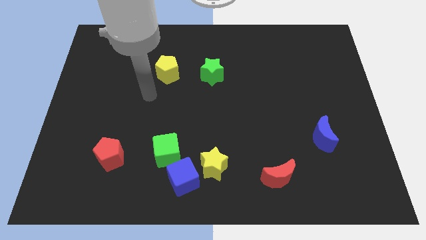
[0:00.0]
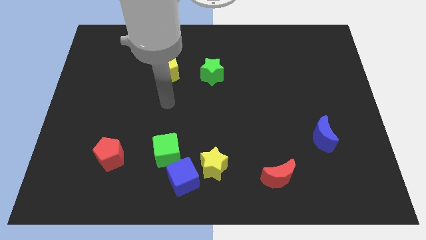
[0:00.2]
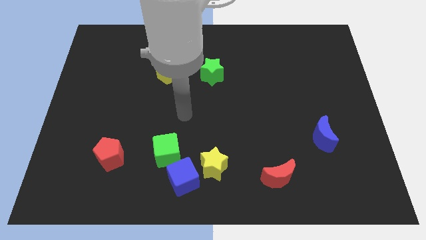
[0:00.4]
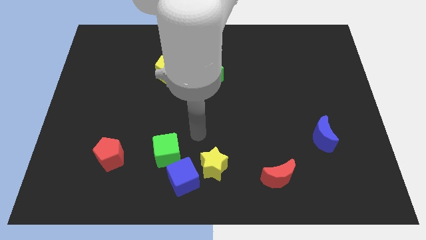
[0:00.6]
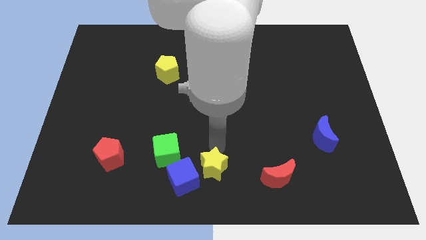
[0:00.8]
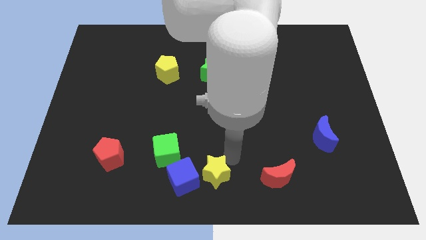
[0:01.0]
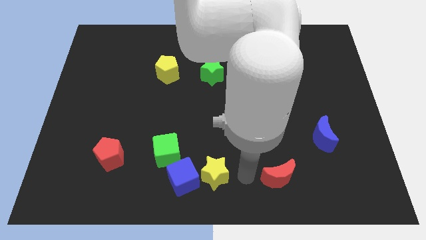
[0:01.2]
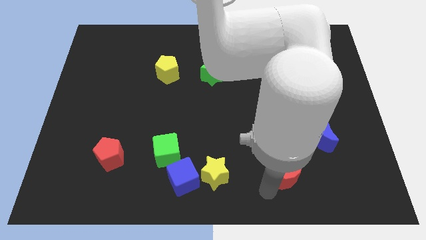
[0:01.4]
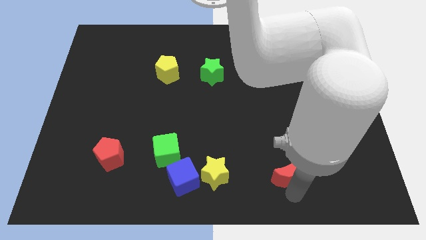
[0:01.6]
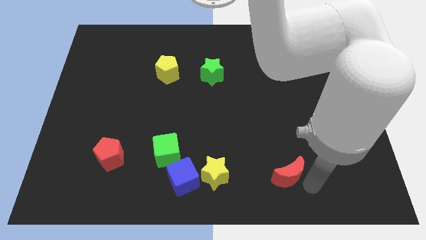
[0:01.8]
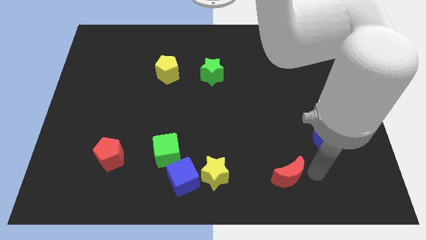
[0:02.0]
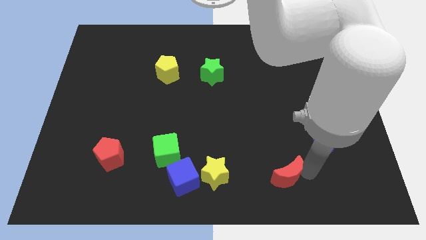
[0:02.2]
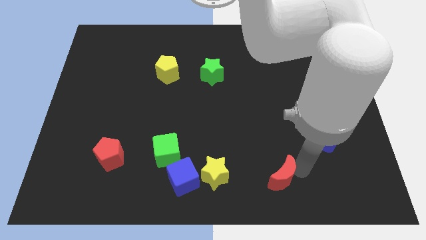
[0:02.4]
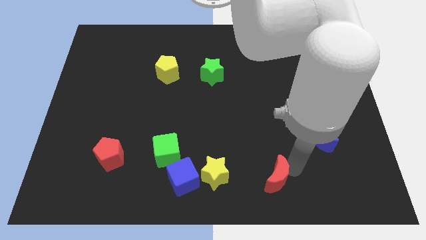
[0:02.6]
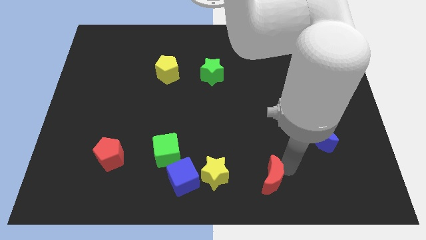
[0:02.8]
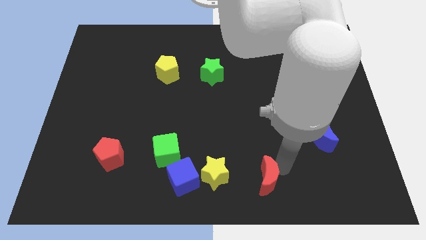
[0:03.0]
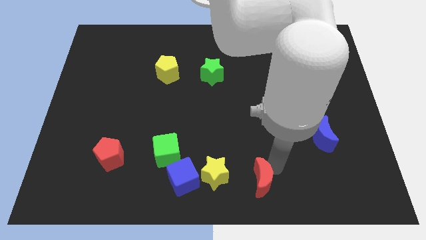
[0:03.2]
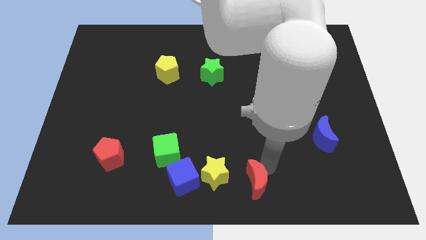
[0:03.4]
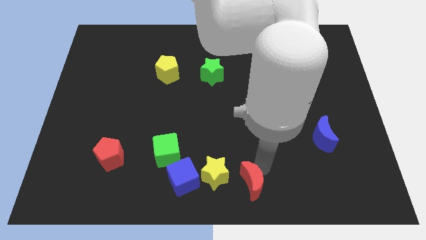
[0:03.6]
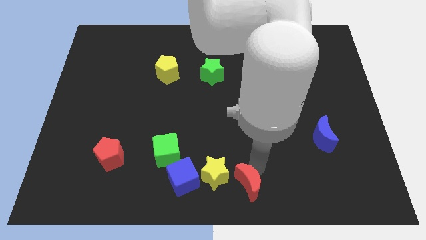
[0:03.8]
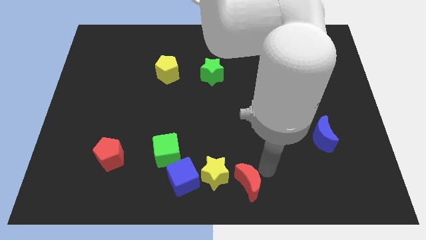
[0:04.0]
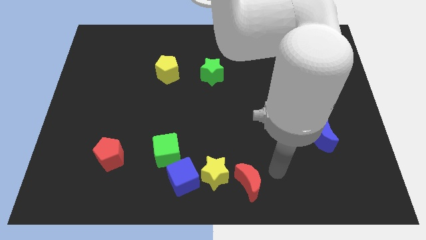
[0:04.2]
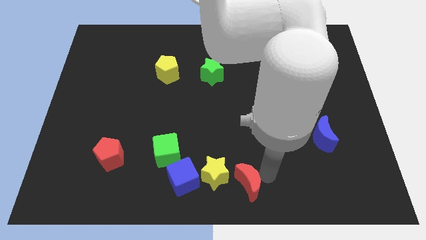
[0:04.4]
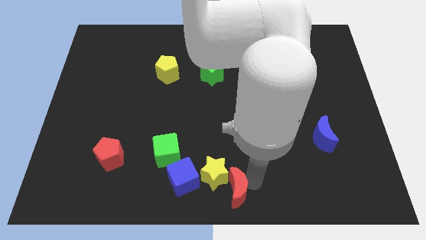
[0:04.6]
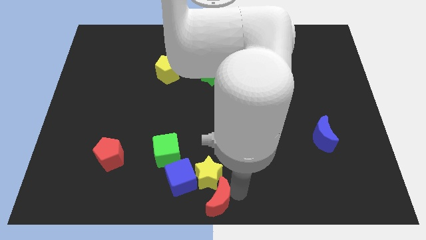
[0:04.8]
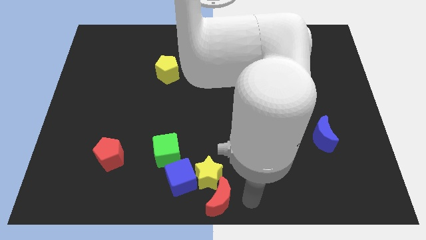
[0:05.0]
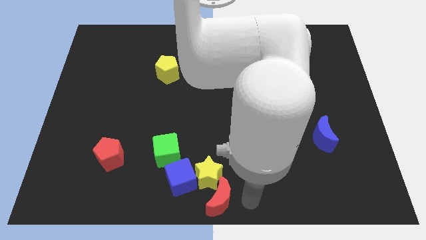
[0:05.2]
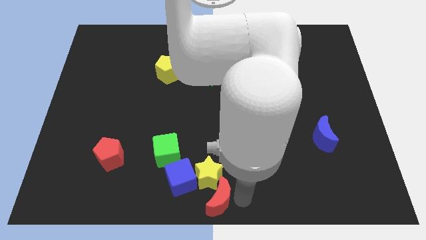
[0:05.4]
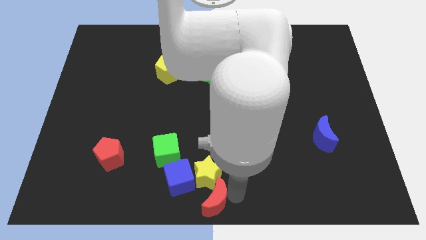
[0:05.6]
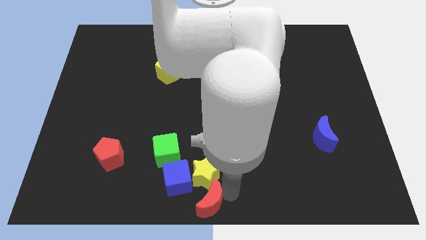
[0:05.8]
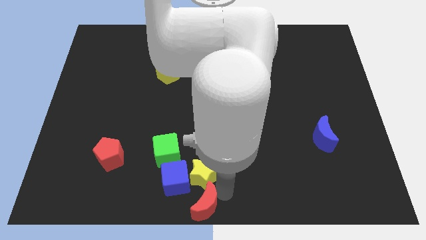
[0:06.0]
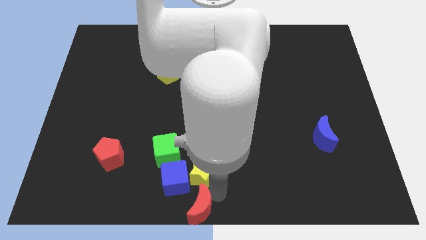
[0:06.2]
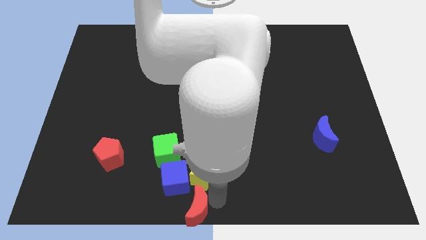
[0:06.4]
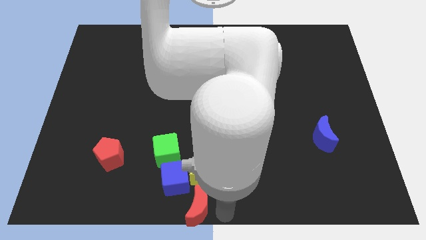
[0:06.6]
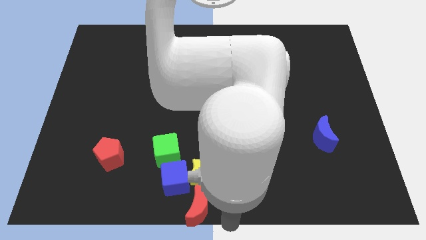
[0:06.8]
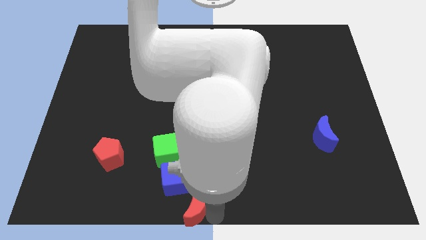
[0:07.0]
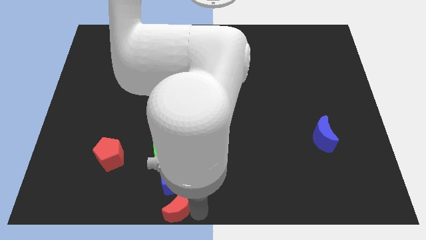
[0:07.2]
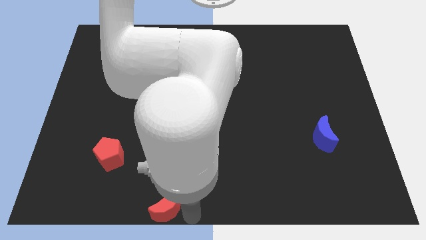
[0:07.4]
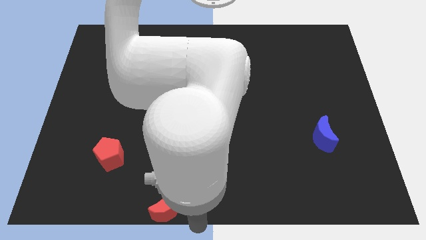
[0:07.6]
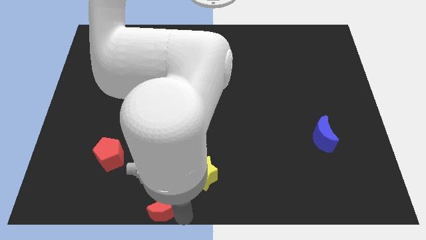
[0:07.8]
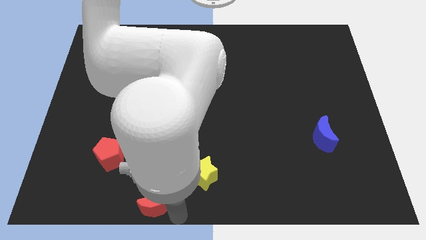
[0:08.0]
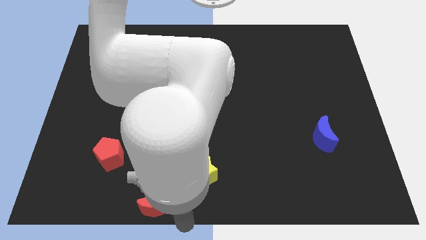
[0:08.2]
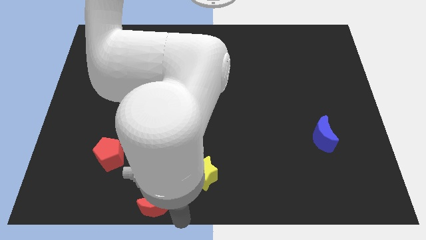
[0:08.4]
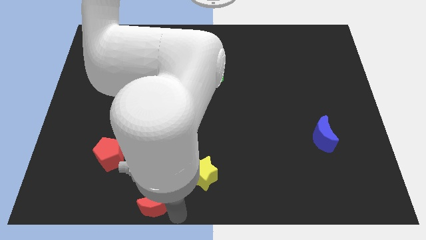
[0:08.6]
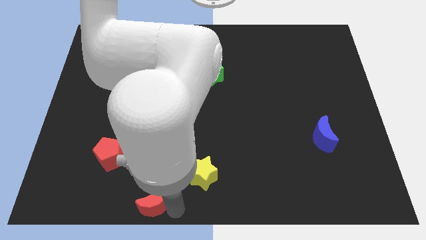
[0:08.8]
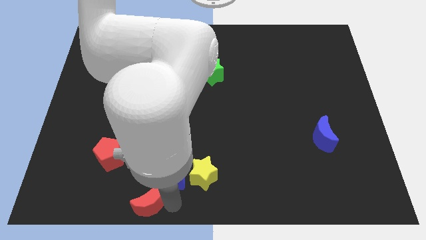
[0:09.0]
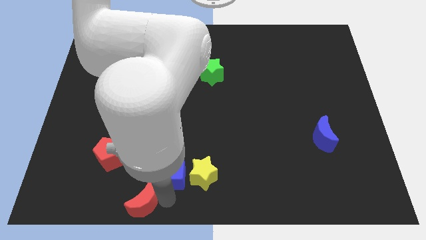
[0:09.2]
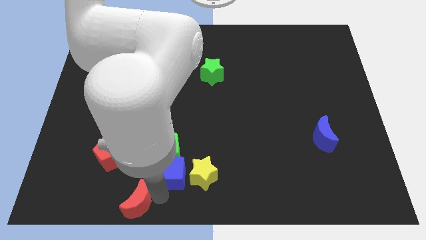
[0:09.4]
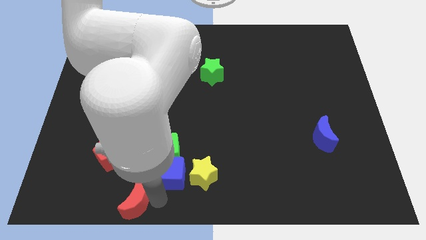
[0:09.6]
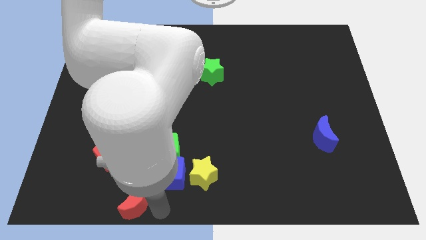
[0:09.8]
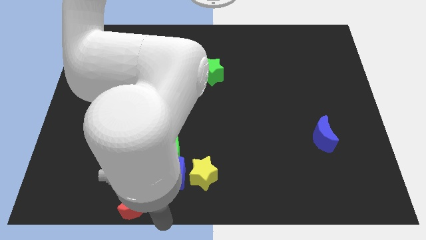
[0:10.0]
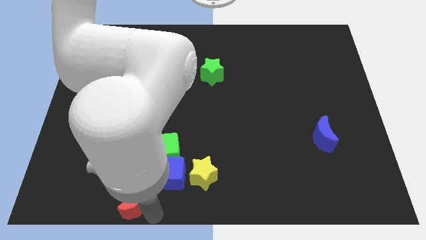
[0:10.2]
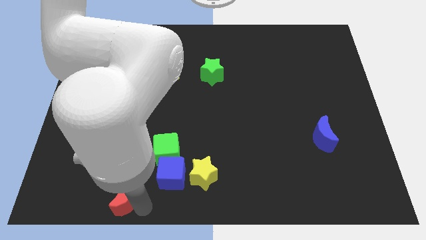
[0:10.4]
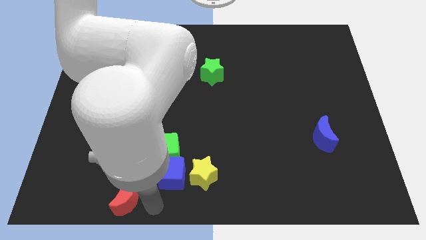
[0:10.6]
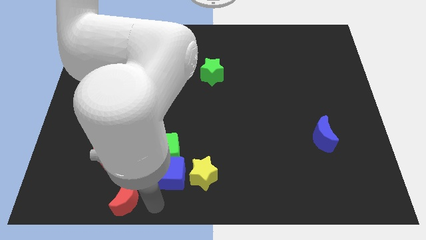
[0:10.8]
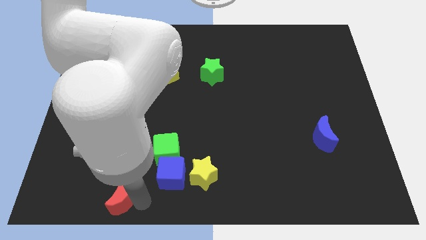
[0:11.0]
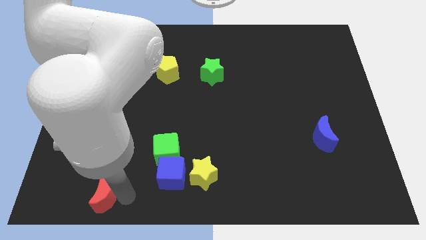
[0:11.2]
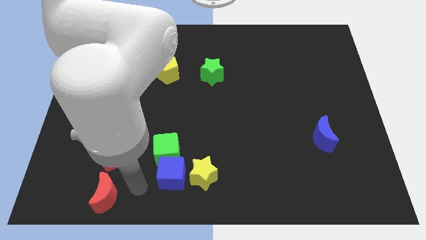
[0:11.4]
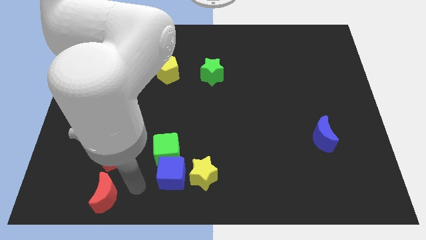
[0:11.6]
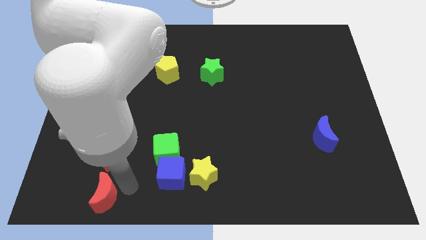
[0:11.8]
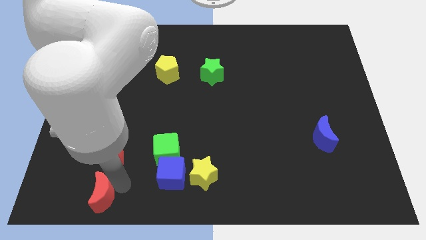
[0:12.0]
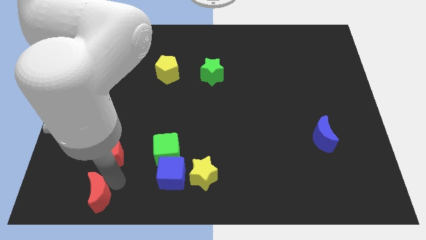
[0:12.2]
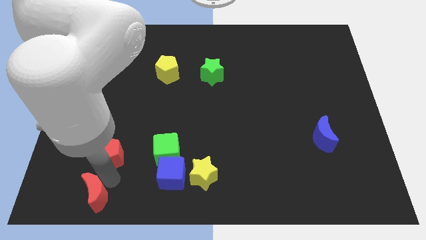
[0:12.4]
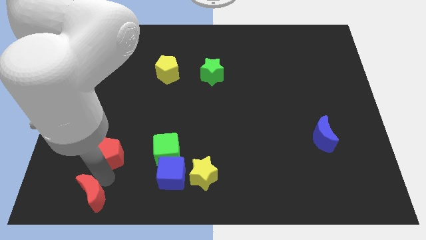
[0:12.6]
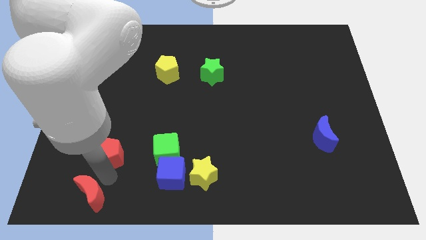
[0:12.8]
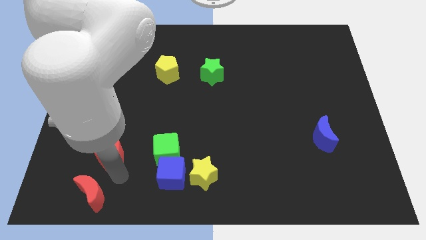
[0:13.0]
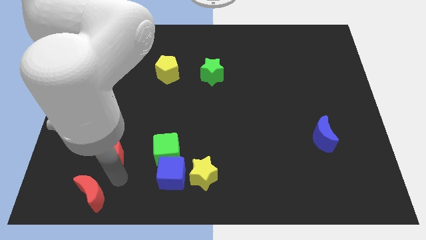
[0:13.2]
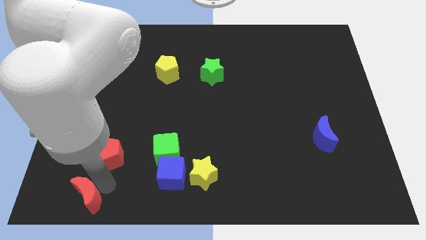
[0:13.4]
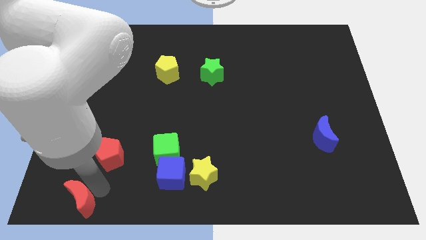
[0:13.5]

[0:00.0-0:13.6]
put the red moon to the bottom left

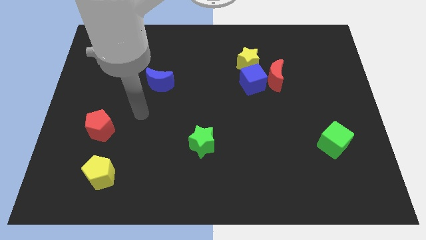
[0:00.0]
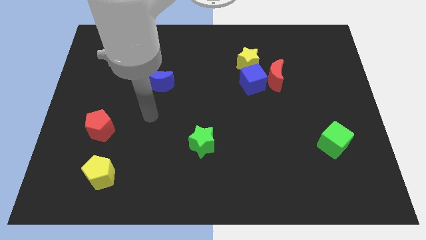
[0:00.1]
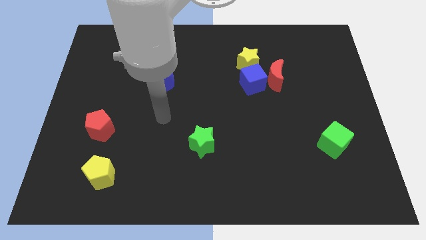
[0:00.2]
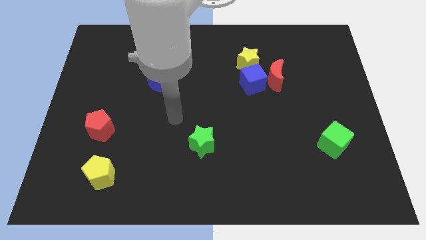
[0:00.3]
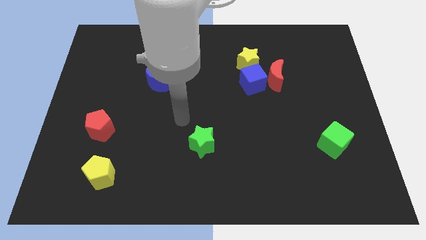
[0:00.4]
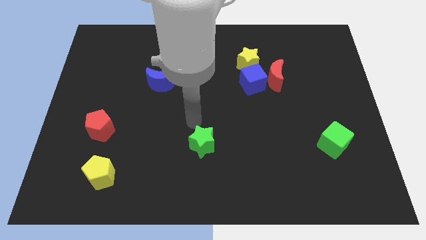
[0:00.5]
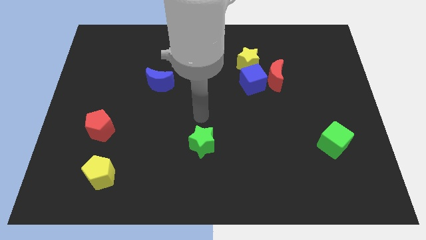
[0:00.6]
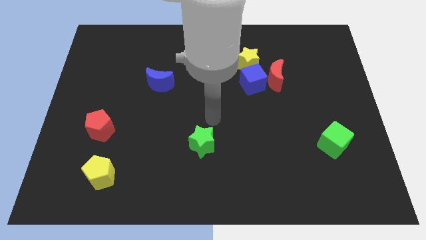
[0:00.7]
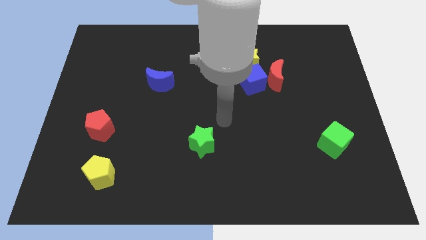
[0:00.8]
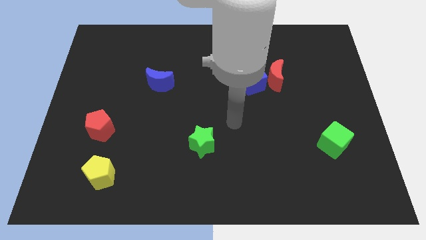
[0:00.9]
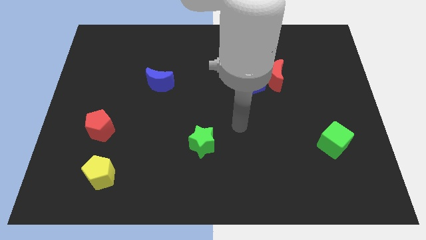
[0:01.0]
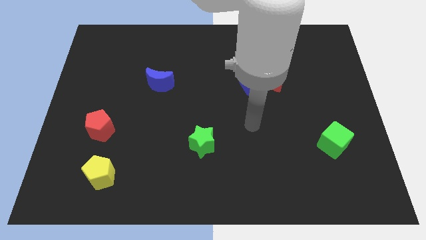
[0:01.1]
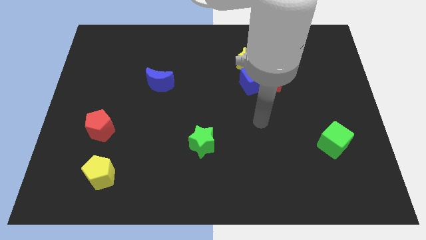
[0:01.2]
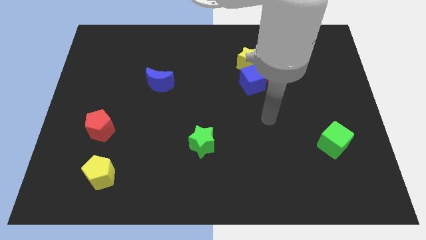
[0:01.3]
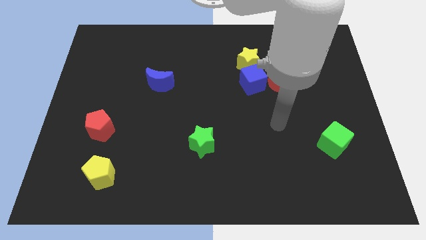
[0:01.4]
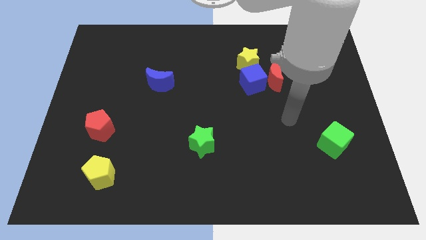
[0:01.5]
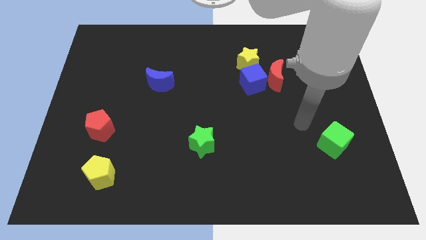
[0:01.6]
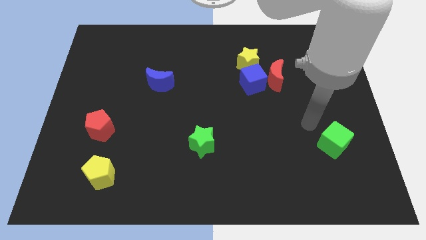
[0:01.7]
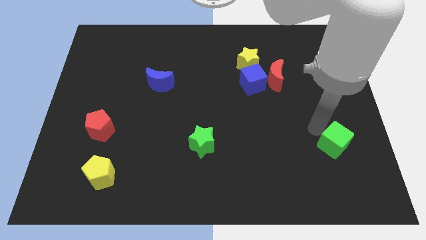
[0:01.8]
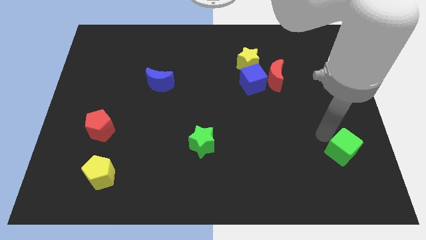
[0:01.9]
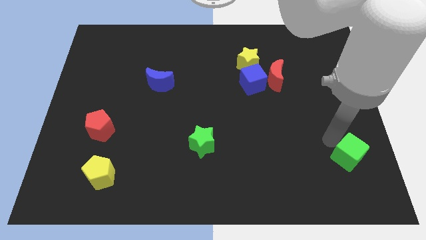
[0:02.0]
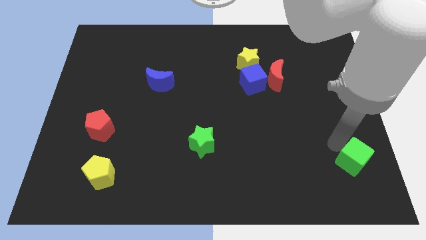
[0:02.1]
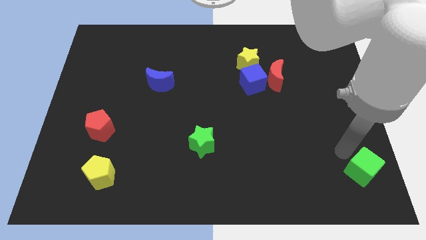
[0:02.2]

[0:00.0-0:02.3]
slide the green cube to the lower right corner
